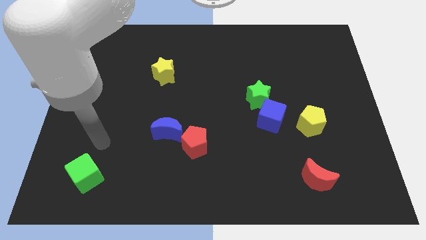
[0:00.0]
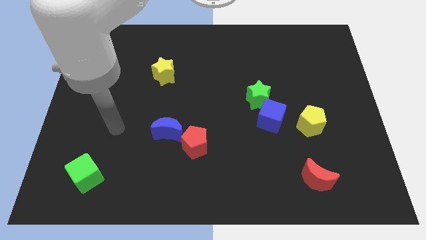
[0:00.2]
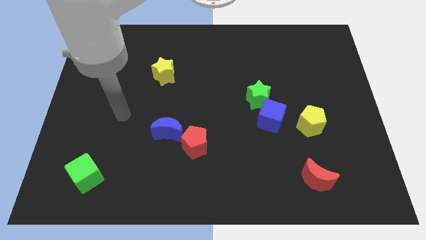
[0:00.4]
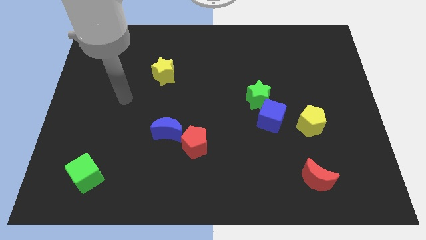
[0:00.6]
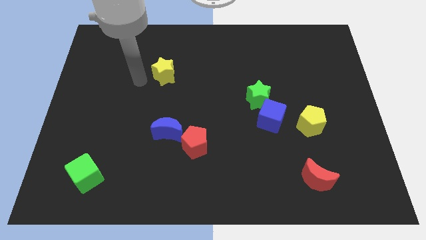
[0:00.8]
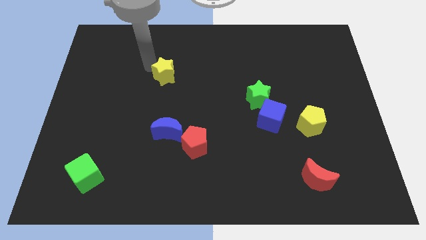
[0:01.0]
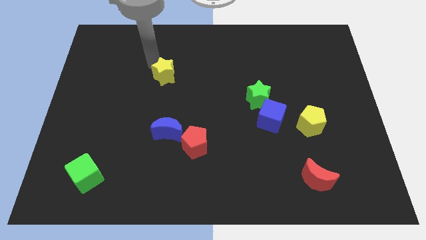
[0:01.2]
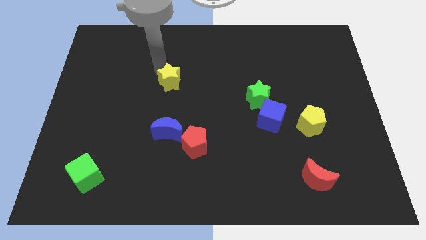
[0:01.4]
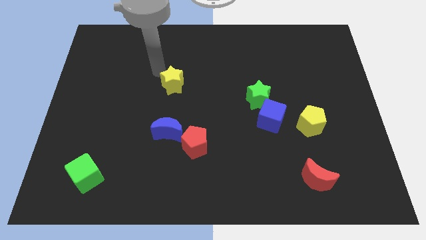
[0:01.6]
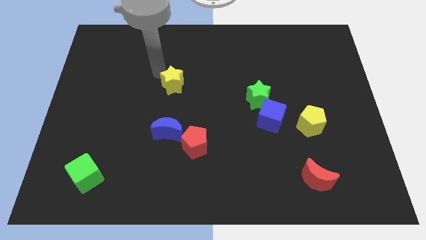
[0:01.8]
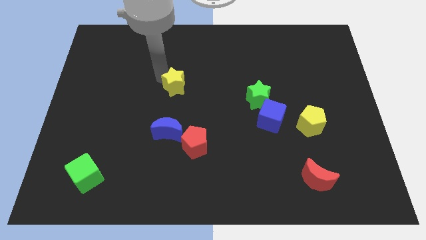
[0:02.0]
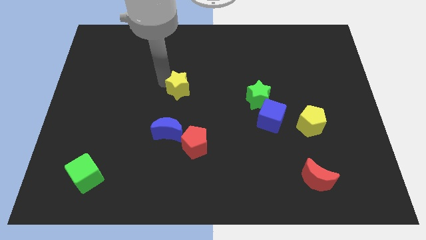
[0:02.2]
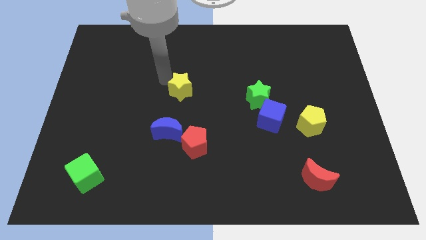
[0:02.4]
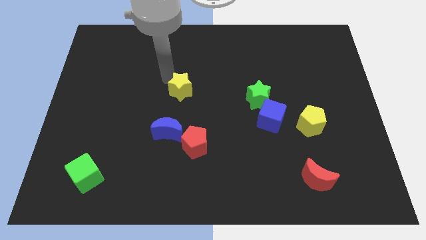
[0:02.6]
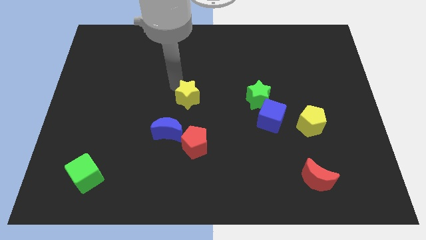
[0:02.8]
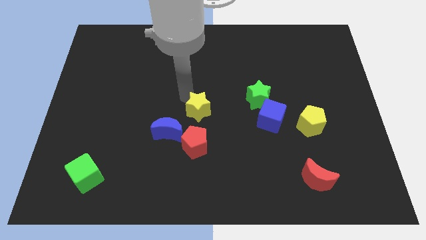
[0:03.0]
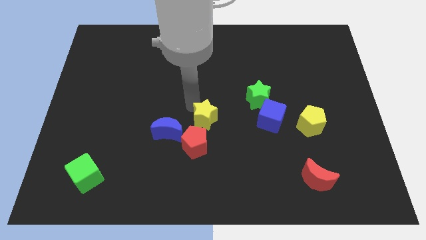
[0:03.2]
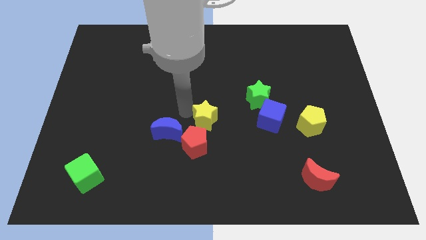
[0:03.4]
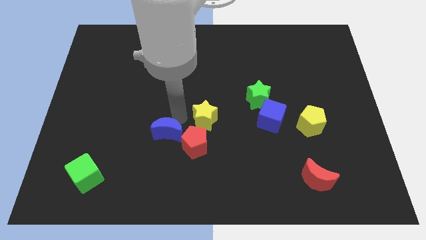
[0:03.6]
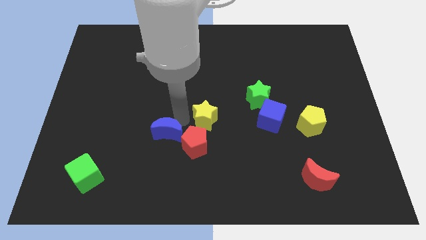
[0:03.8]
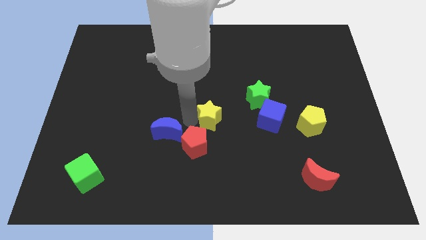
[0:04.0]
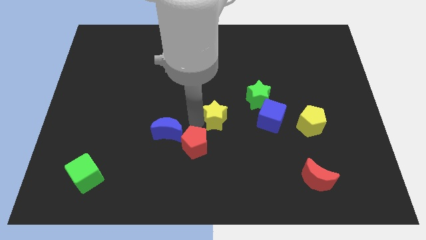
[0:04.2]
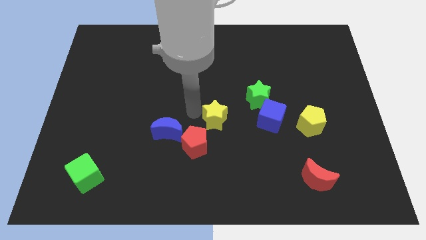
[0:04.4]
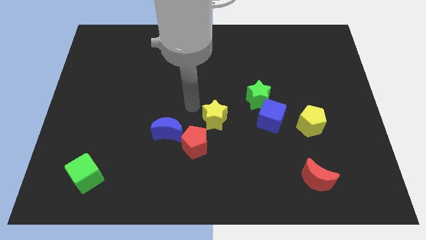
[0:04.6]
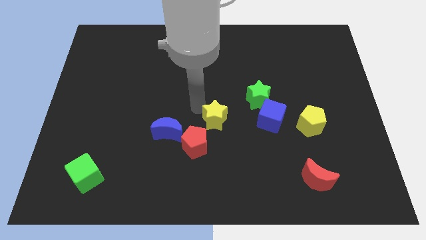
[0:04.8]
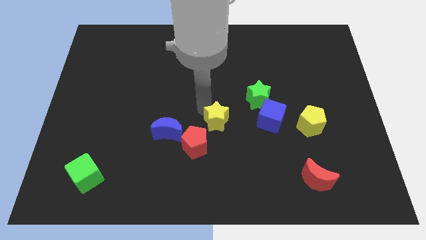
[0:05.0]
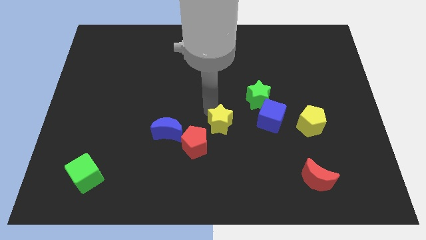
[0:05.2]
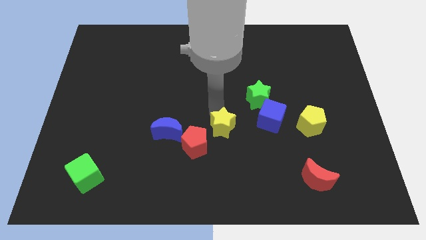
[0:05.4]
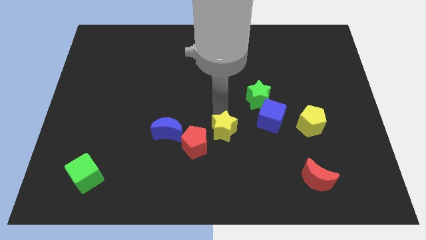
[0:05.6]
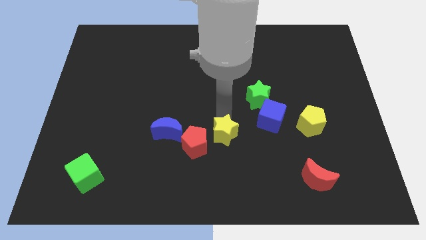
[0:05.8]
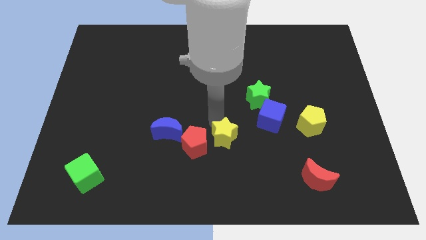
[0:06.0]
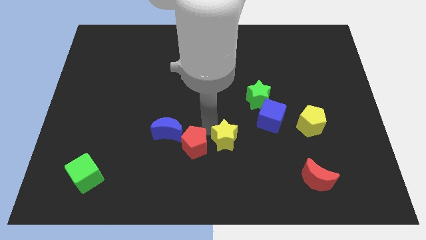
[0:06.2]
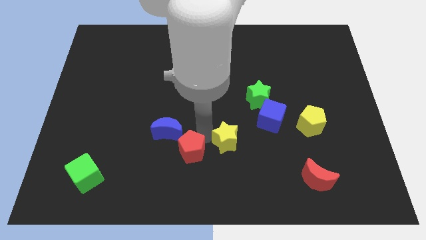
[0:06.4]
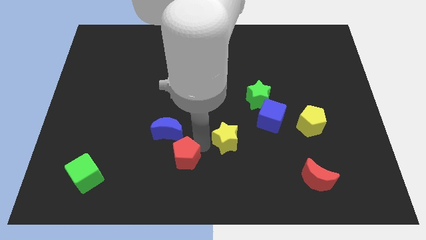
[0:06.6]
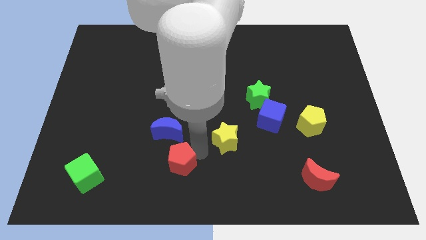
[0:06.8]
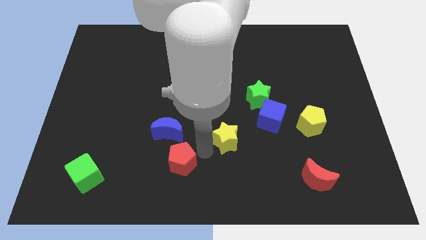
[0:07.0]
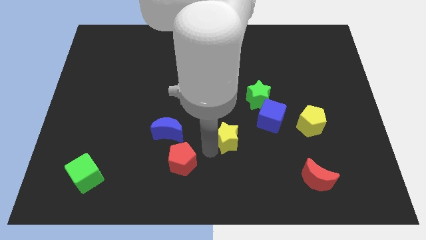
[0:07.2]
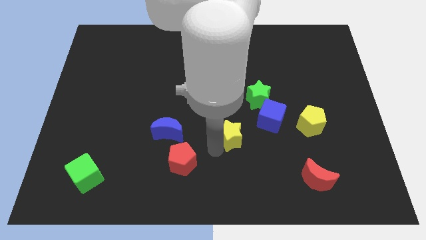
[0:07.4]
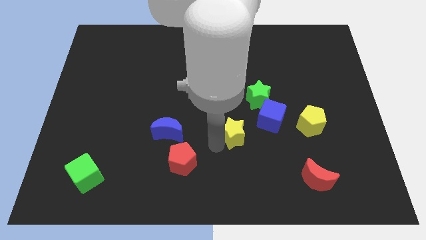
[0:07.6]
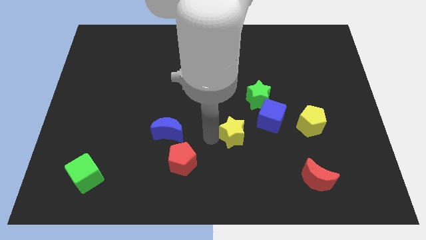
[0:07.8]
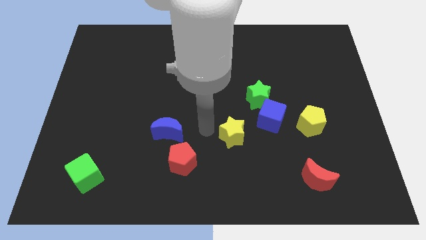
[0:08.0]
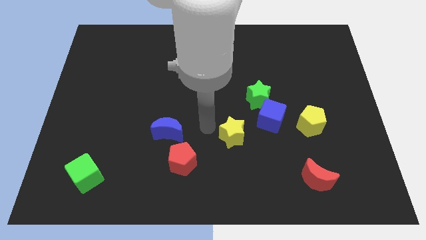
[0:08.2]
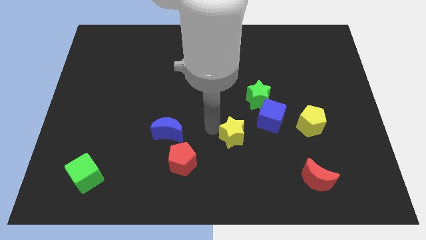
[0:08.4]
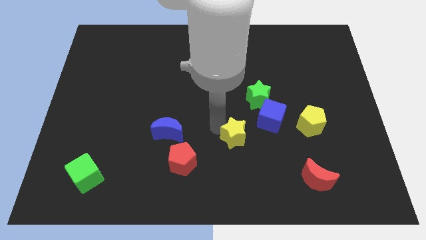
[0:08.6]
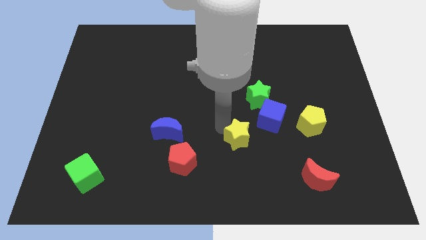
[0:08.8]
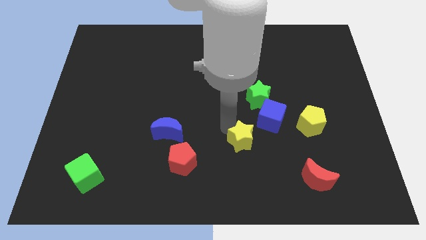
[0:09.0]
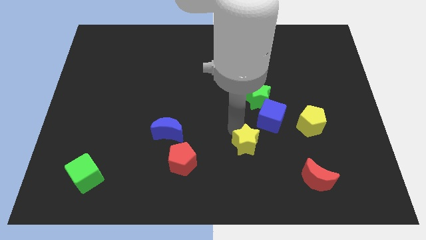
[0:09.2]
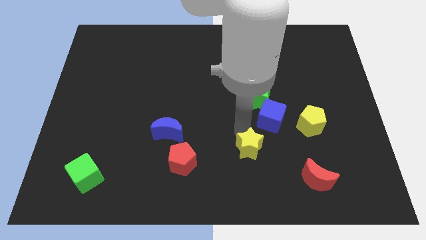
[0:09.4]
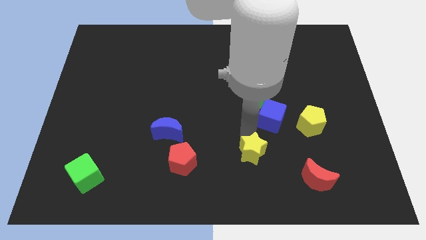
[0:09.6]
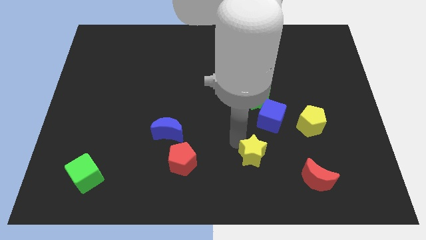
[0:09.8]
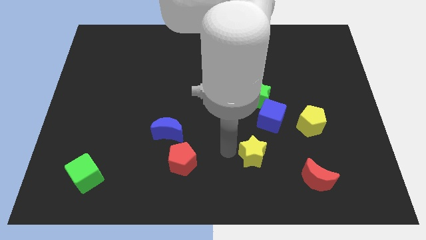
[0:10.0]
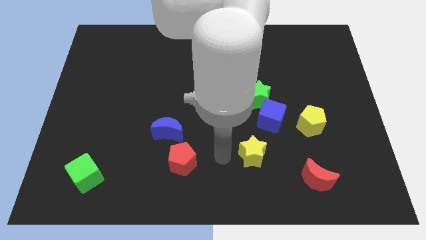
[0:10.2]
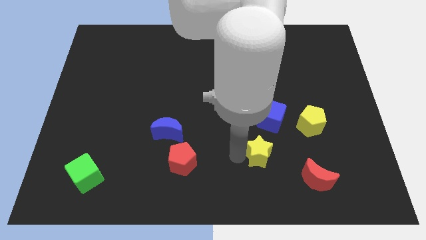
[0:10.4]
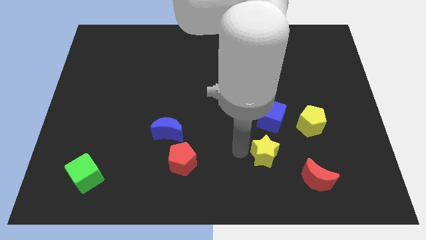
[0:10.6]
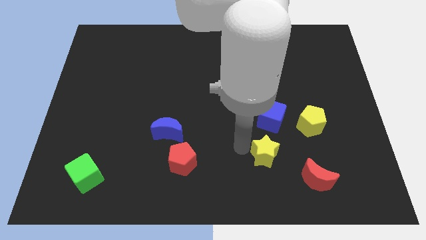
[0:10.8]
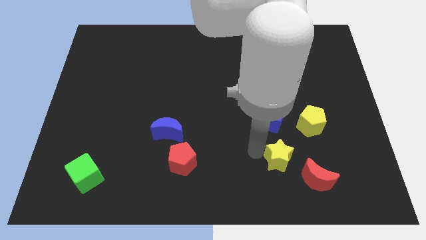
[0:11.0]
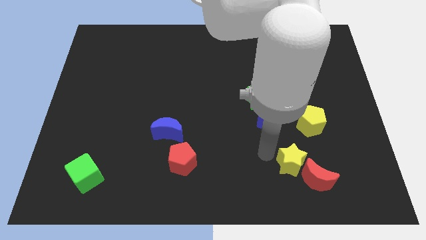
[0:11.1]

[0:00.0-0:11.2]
put the yellow star next to the red moon

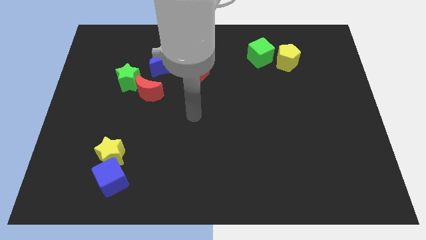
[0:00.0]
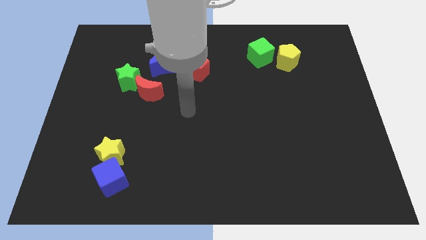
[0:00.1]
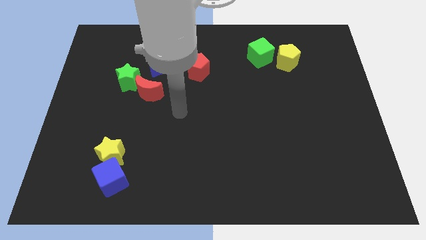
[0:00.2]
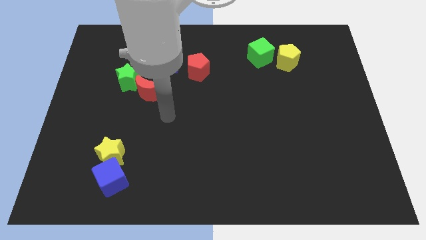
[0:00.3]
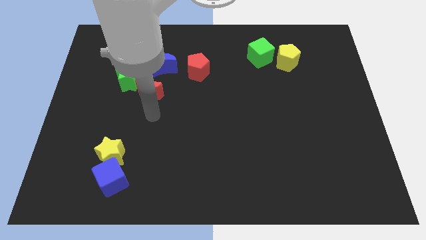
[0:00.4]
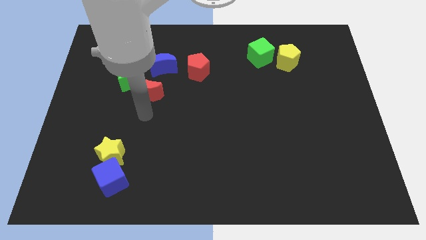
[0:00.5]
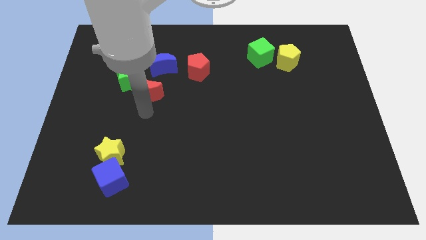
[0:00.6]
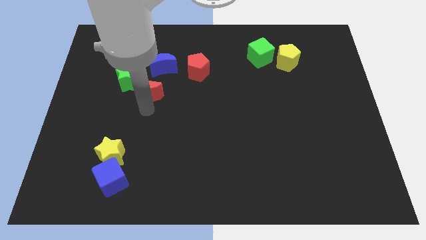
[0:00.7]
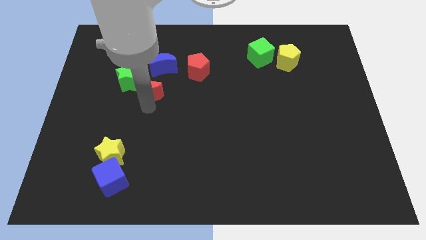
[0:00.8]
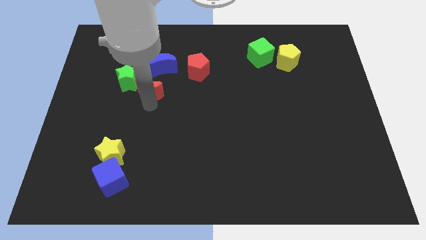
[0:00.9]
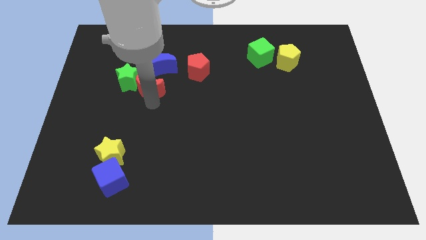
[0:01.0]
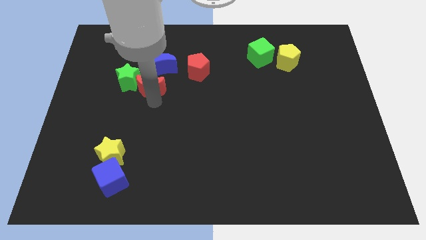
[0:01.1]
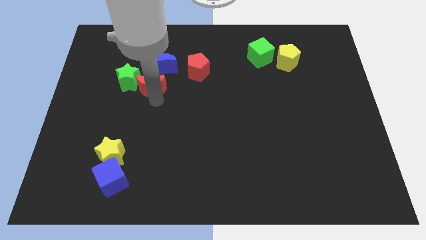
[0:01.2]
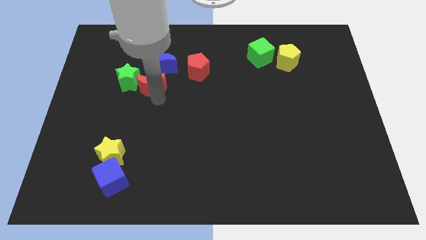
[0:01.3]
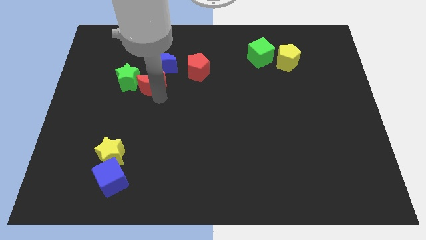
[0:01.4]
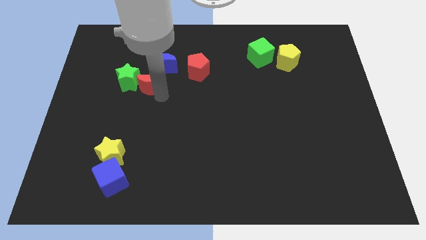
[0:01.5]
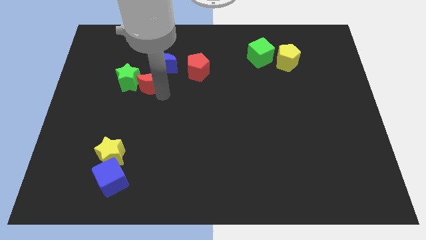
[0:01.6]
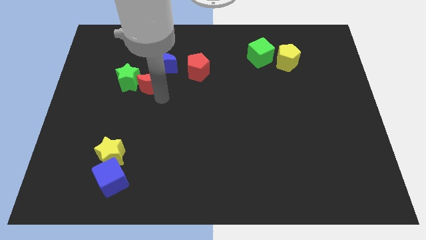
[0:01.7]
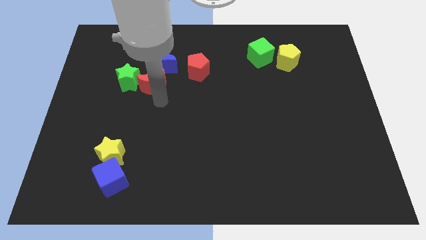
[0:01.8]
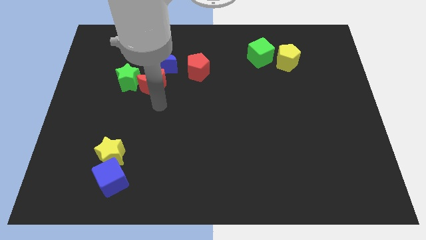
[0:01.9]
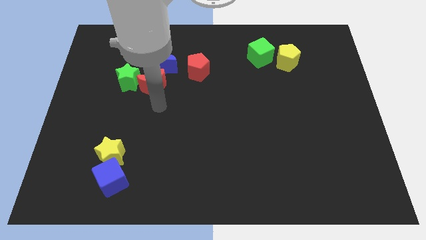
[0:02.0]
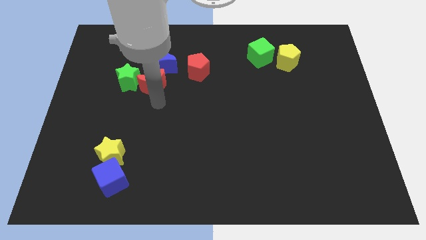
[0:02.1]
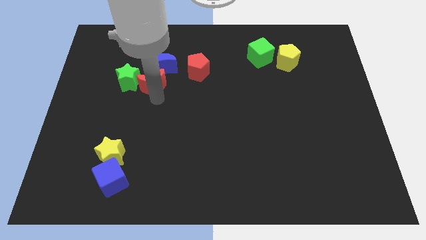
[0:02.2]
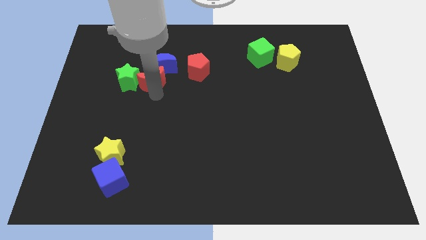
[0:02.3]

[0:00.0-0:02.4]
put the red moon to the blue moon
